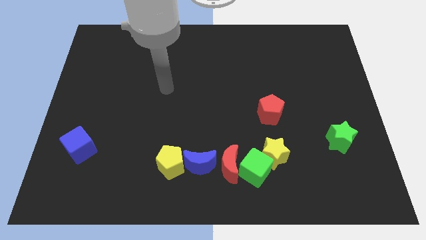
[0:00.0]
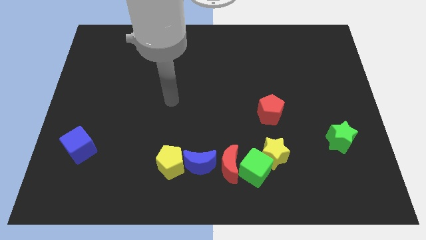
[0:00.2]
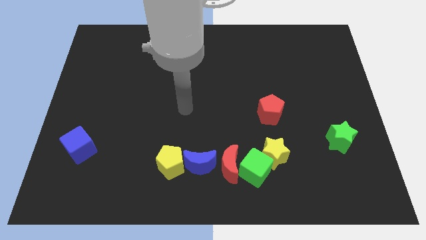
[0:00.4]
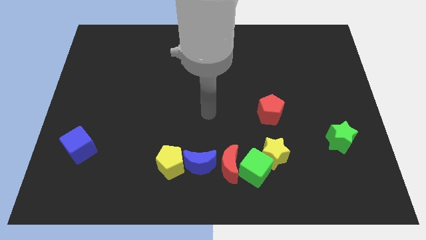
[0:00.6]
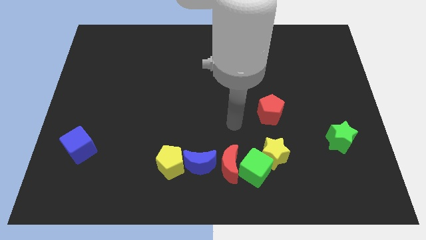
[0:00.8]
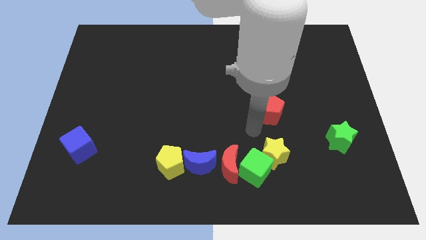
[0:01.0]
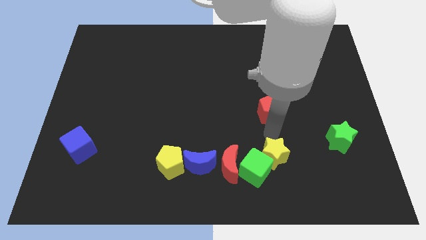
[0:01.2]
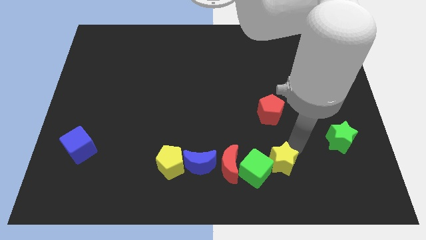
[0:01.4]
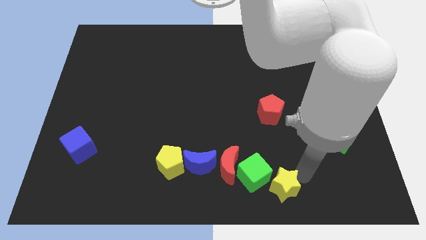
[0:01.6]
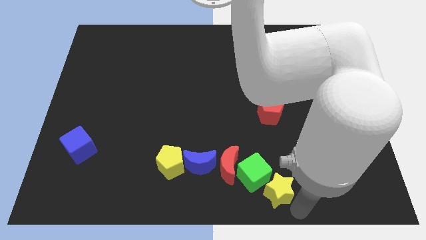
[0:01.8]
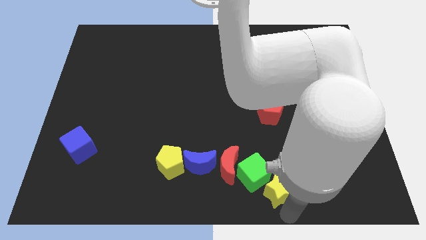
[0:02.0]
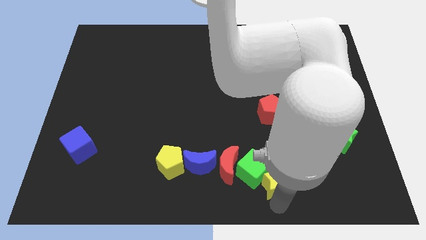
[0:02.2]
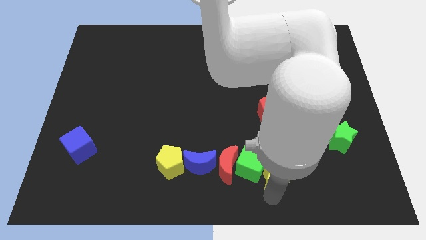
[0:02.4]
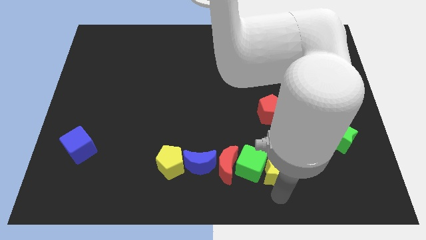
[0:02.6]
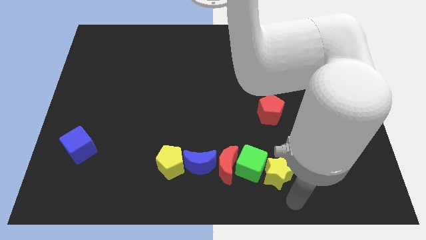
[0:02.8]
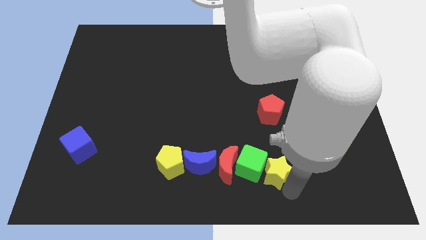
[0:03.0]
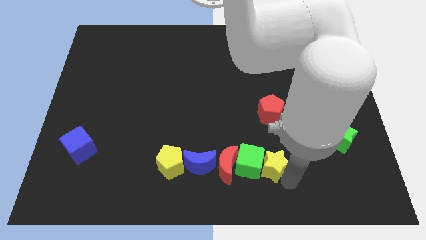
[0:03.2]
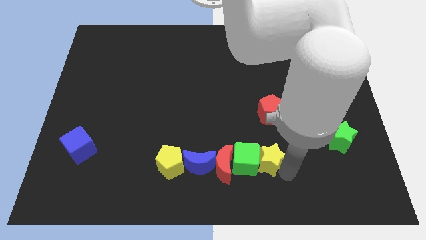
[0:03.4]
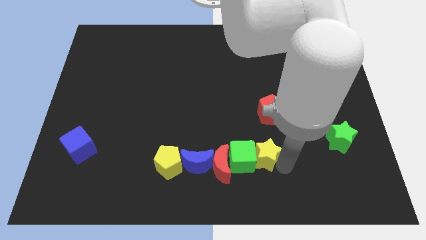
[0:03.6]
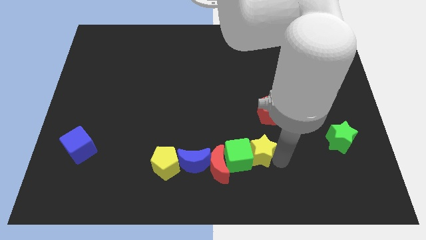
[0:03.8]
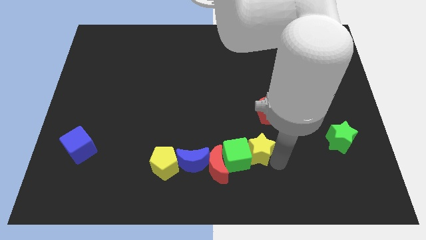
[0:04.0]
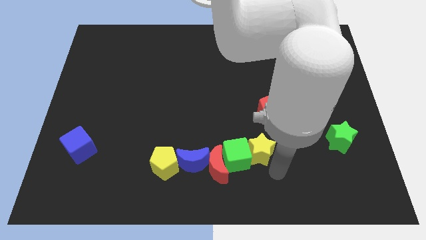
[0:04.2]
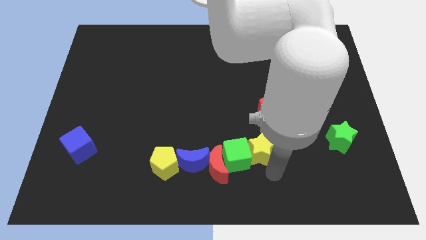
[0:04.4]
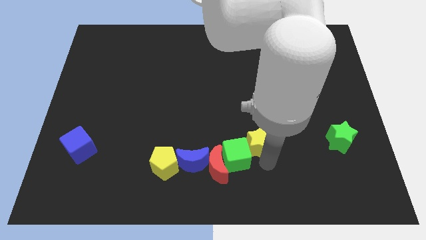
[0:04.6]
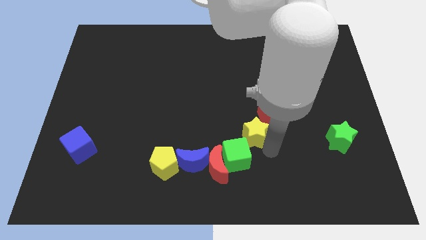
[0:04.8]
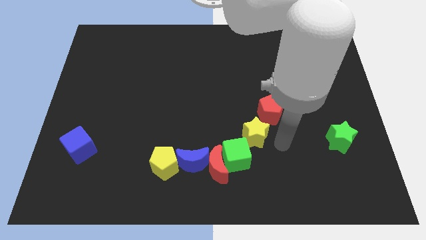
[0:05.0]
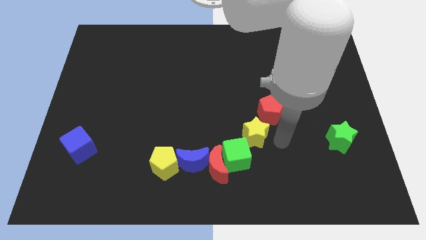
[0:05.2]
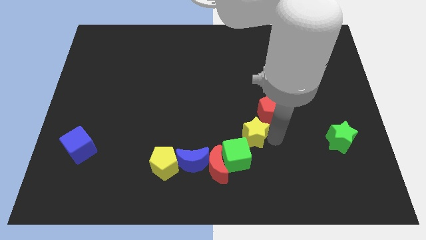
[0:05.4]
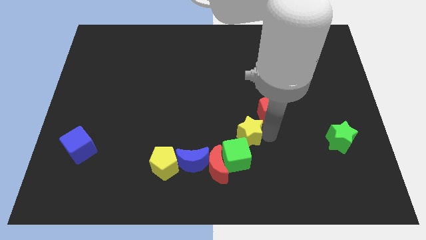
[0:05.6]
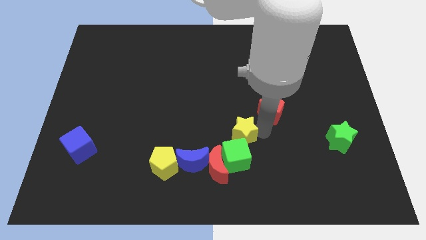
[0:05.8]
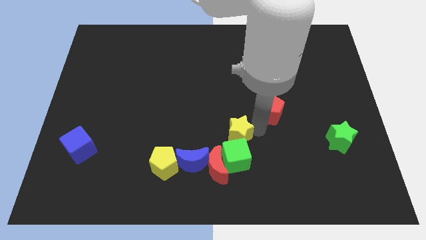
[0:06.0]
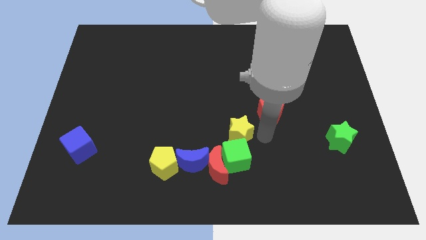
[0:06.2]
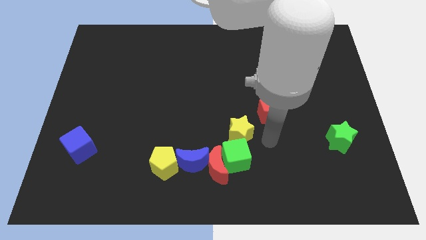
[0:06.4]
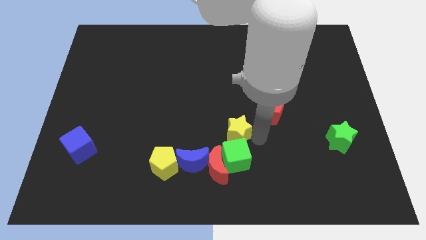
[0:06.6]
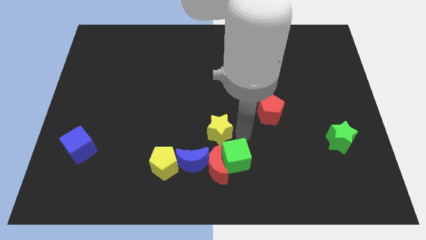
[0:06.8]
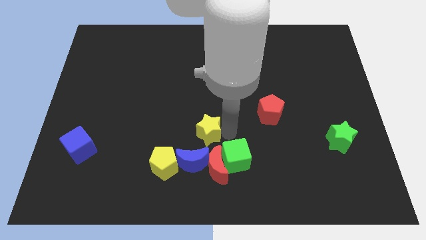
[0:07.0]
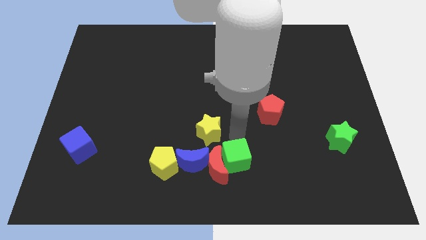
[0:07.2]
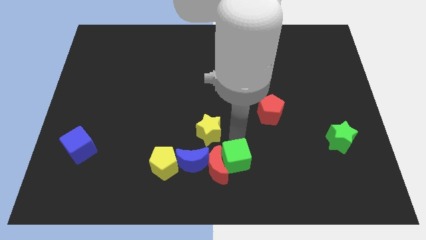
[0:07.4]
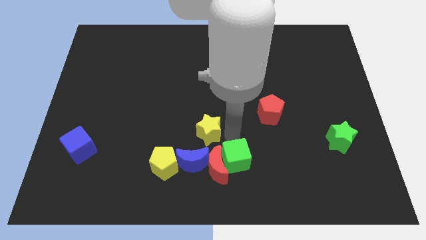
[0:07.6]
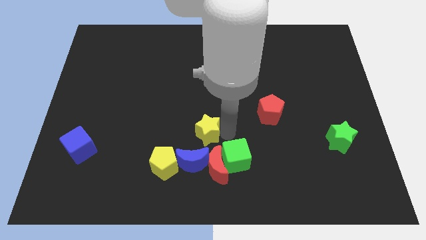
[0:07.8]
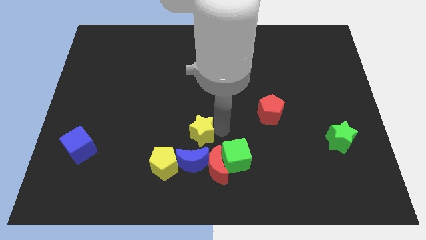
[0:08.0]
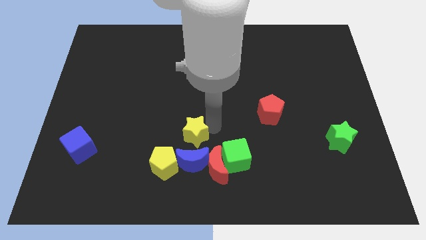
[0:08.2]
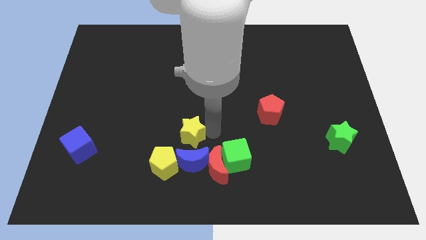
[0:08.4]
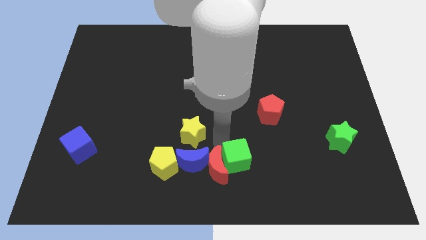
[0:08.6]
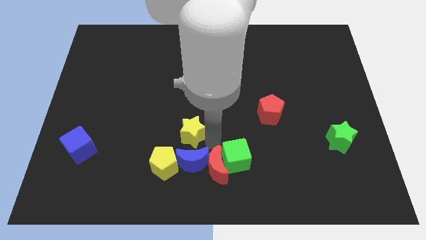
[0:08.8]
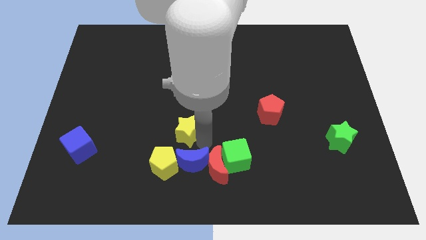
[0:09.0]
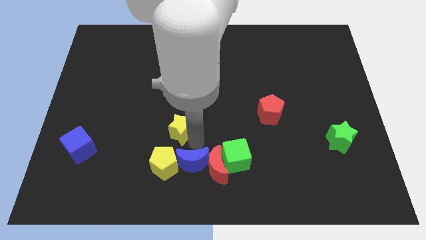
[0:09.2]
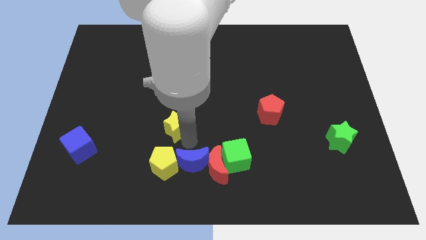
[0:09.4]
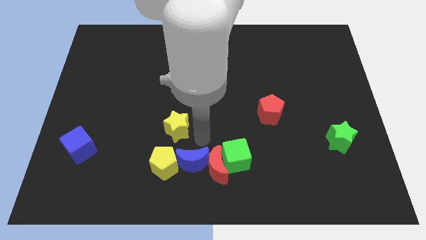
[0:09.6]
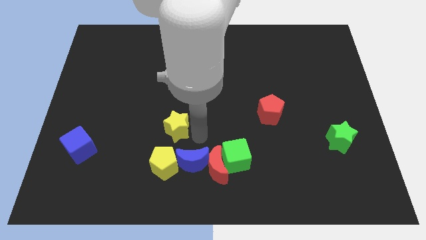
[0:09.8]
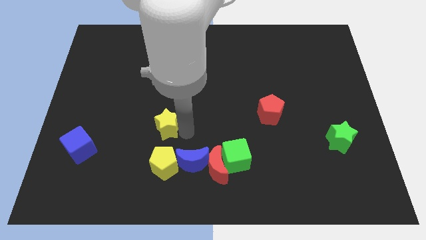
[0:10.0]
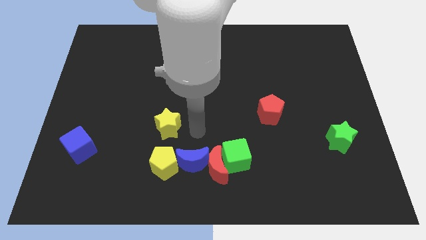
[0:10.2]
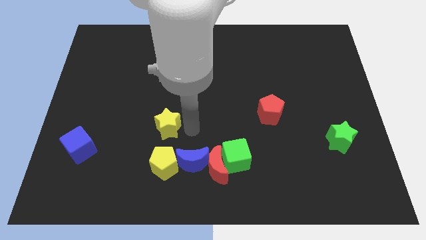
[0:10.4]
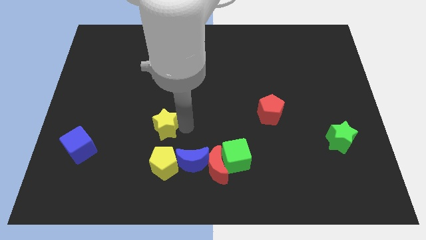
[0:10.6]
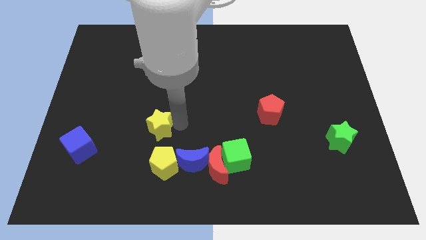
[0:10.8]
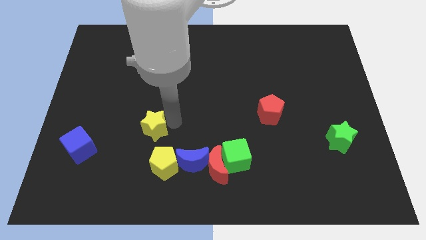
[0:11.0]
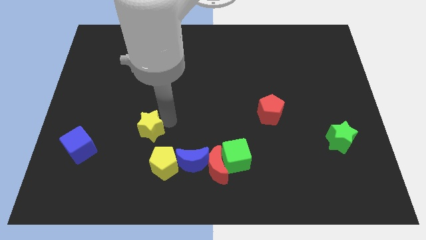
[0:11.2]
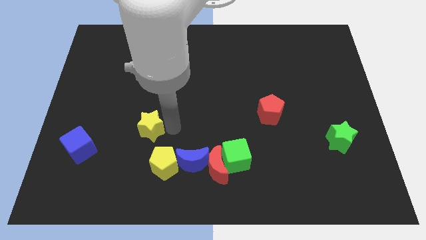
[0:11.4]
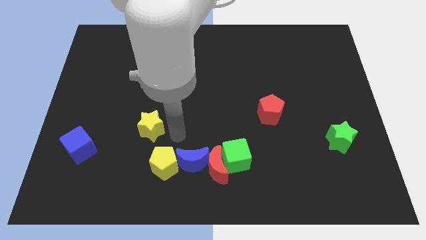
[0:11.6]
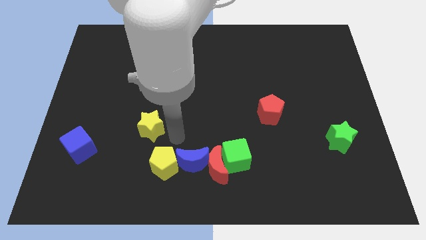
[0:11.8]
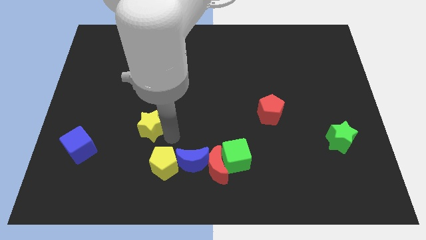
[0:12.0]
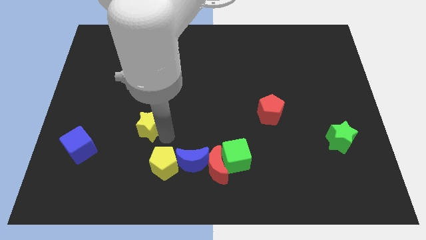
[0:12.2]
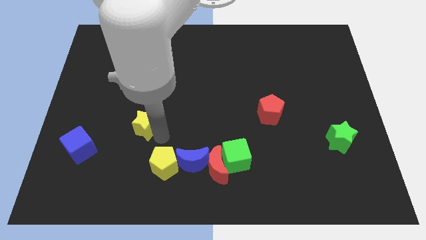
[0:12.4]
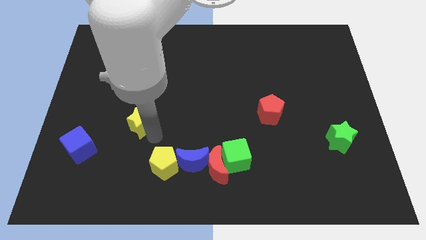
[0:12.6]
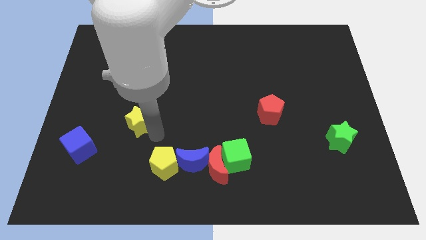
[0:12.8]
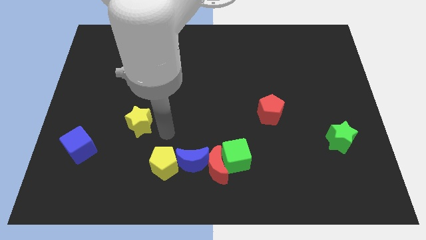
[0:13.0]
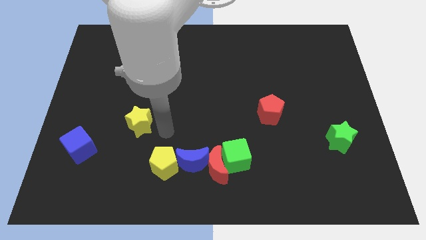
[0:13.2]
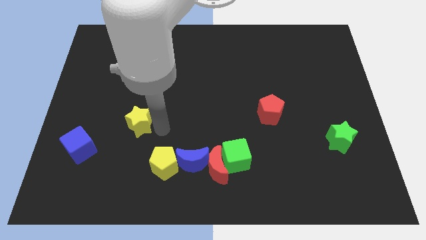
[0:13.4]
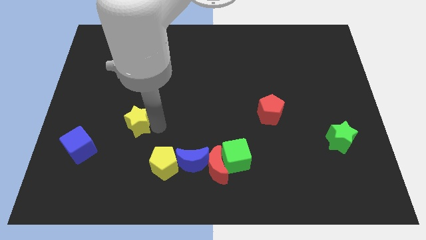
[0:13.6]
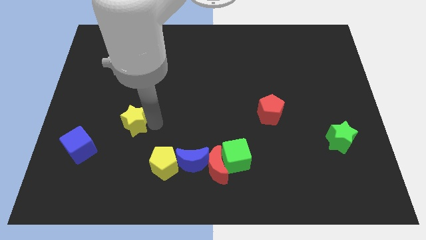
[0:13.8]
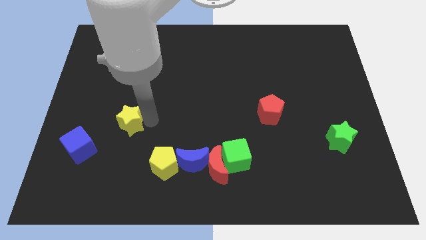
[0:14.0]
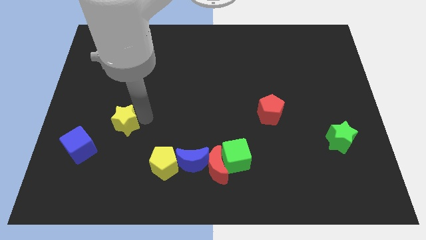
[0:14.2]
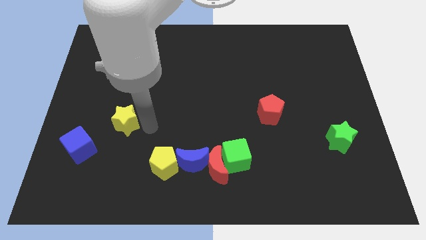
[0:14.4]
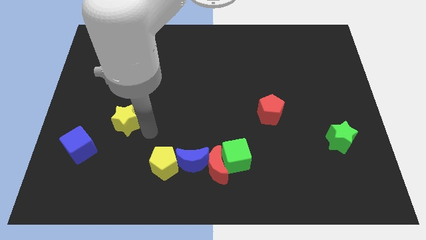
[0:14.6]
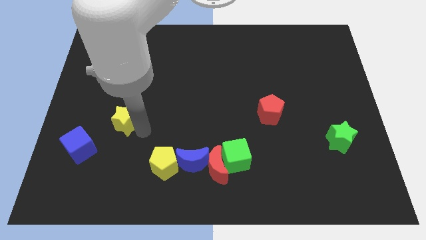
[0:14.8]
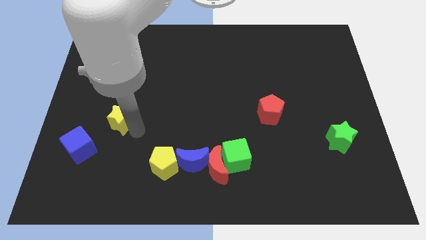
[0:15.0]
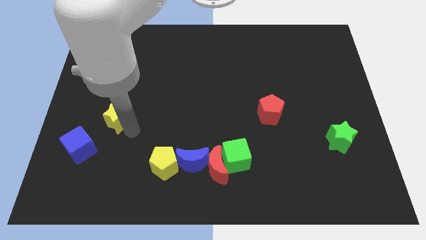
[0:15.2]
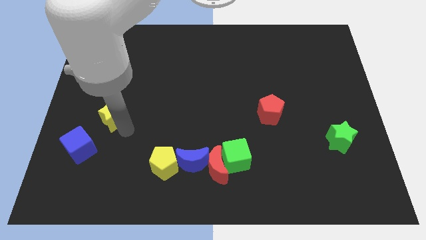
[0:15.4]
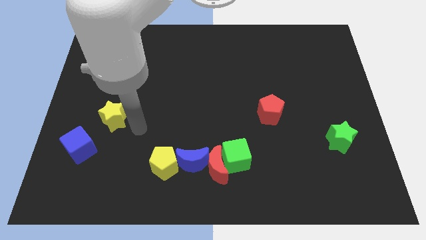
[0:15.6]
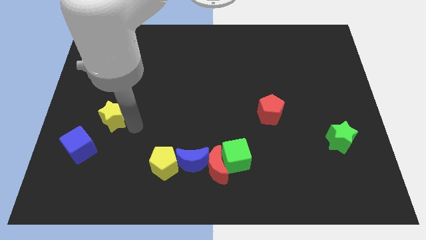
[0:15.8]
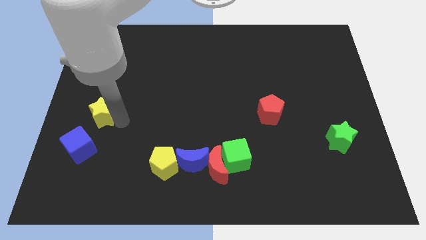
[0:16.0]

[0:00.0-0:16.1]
move the yellow star to the top side of the blue cube
